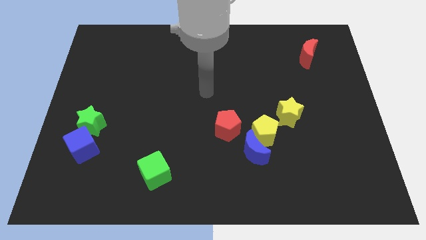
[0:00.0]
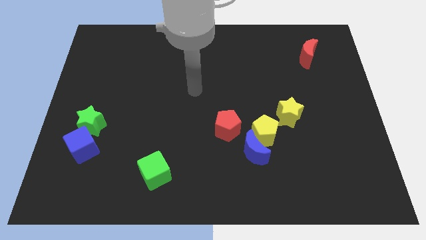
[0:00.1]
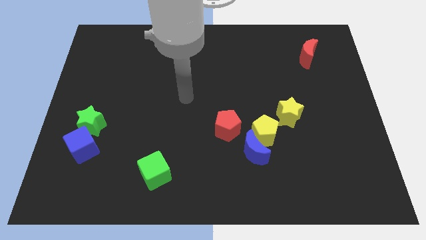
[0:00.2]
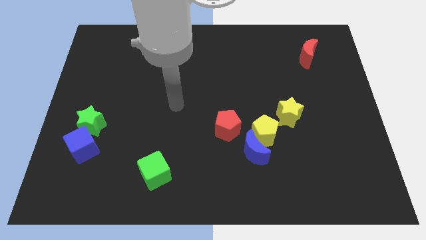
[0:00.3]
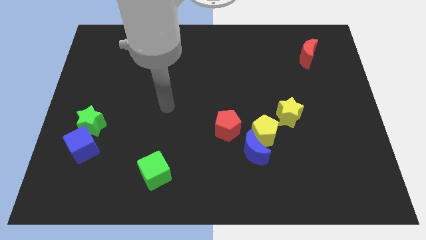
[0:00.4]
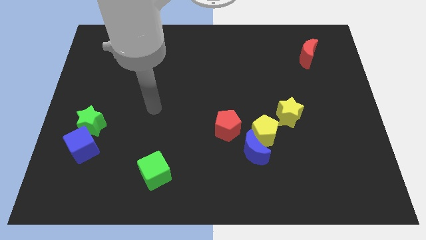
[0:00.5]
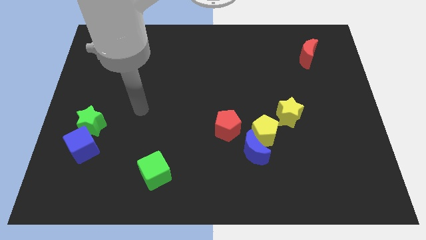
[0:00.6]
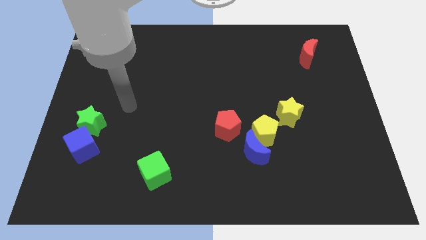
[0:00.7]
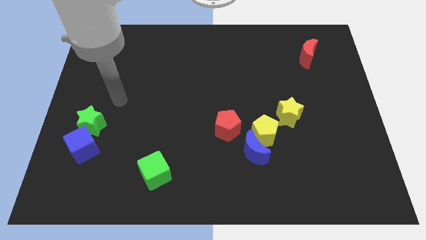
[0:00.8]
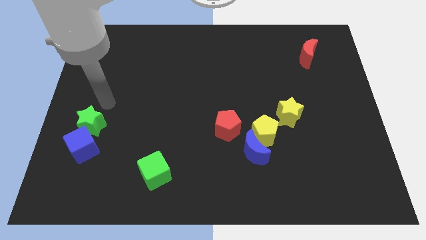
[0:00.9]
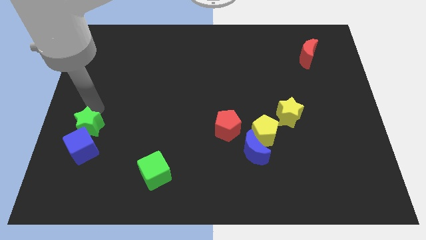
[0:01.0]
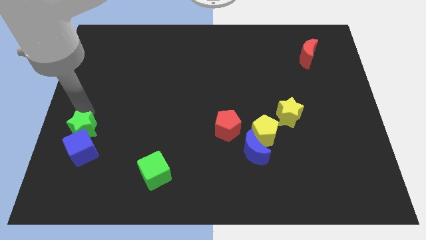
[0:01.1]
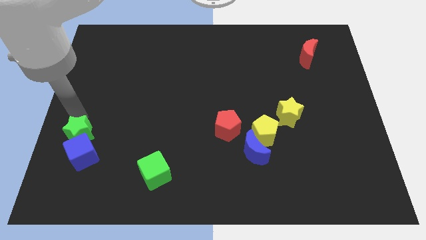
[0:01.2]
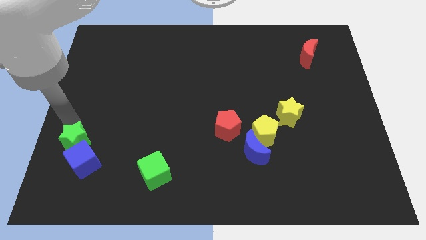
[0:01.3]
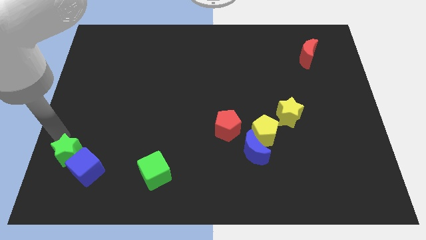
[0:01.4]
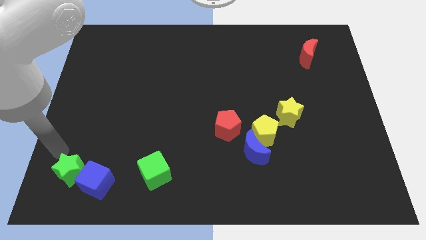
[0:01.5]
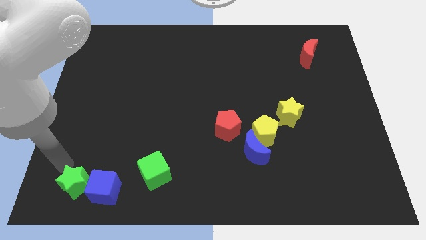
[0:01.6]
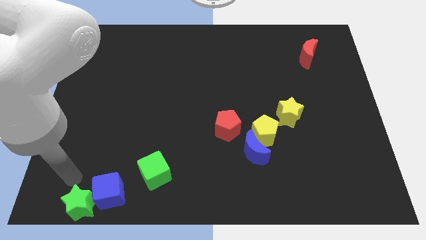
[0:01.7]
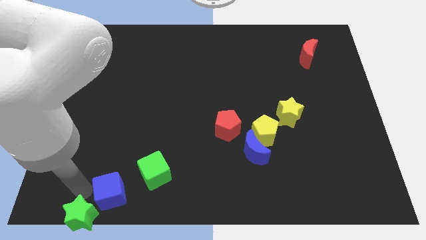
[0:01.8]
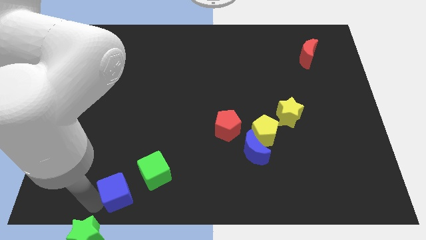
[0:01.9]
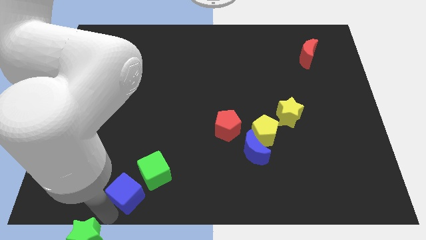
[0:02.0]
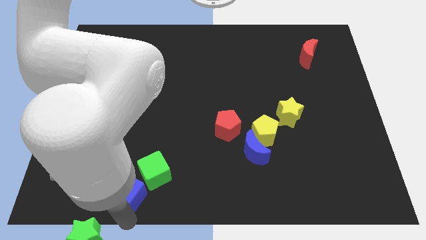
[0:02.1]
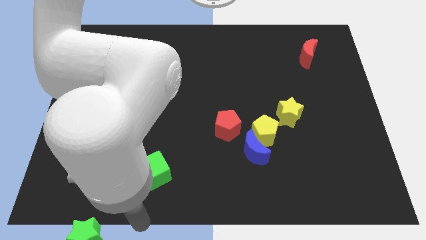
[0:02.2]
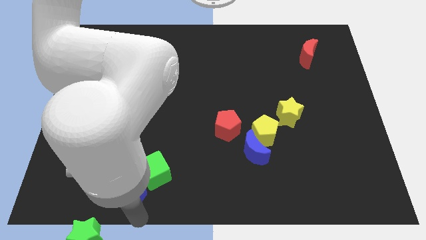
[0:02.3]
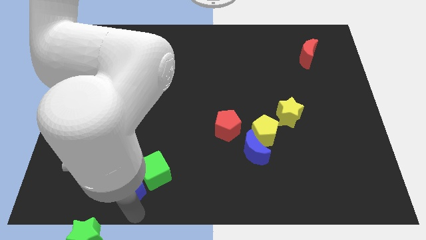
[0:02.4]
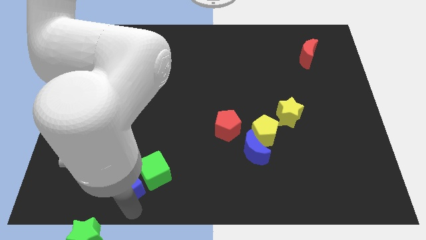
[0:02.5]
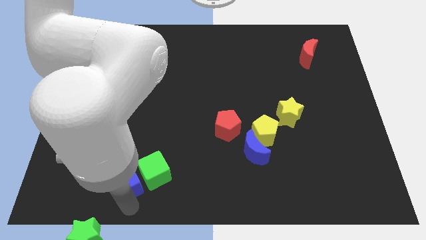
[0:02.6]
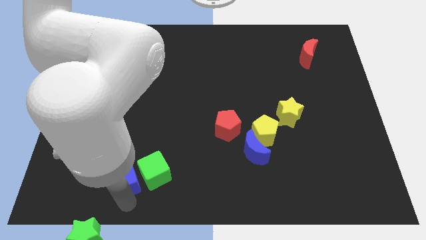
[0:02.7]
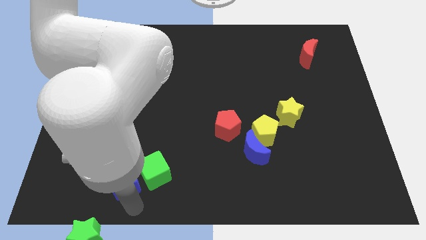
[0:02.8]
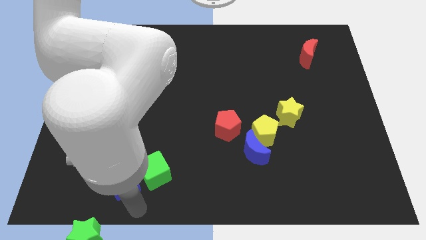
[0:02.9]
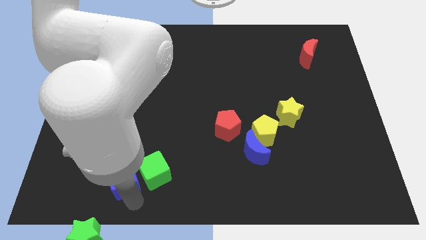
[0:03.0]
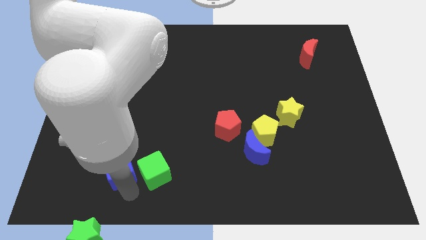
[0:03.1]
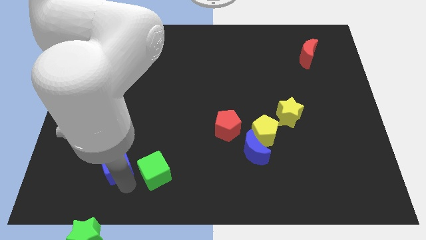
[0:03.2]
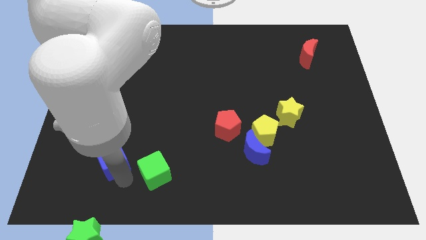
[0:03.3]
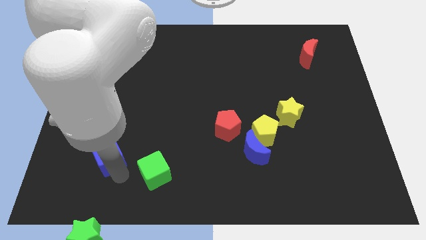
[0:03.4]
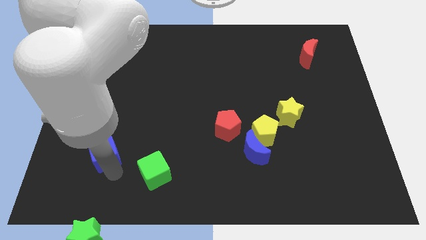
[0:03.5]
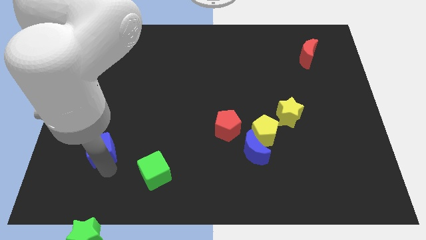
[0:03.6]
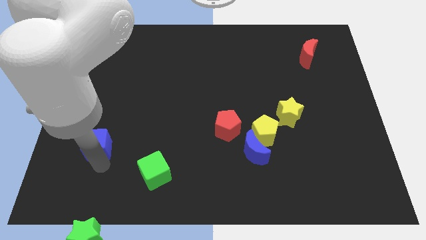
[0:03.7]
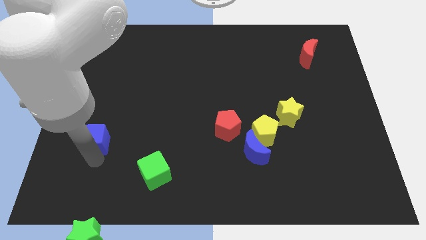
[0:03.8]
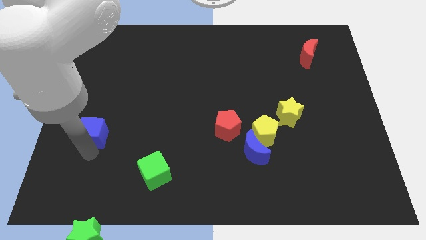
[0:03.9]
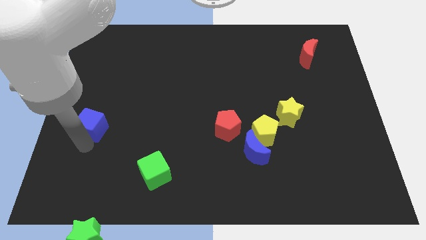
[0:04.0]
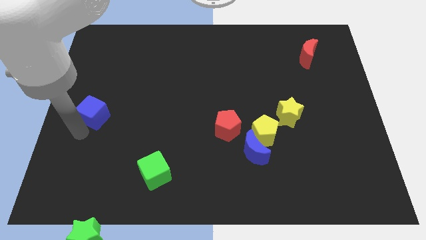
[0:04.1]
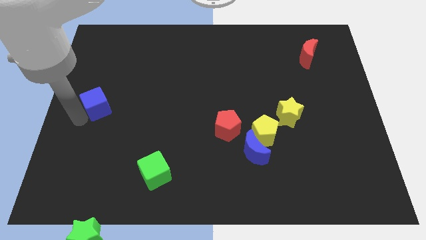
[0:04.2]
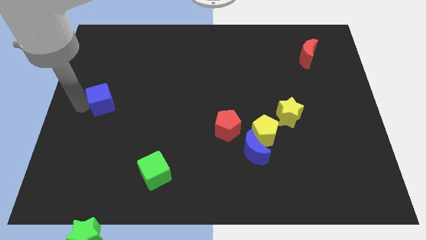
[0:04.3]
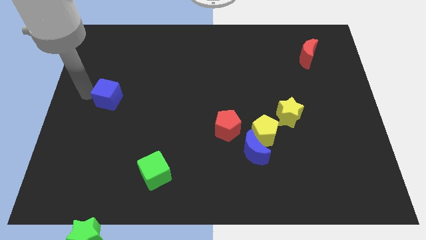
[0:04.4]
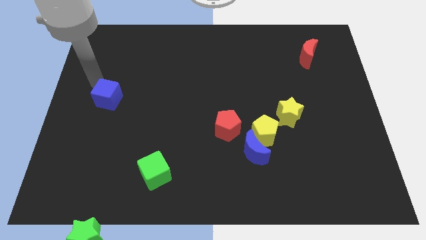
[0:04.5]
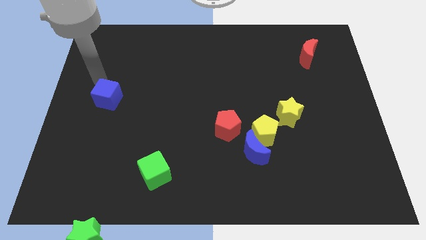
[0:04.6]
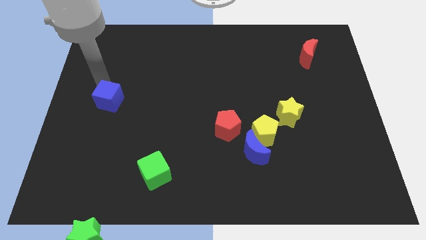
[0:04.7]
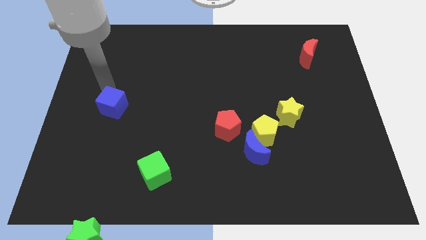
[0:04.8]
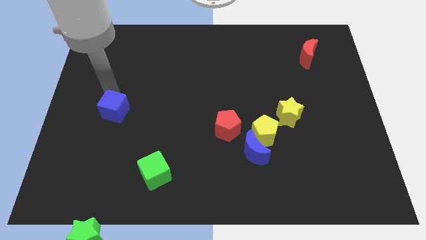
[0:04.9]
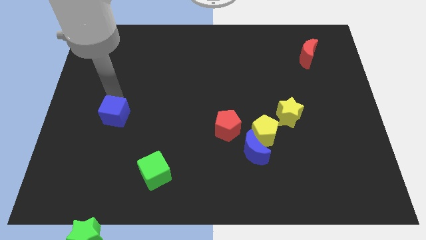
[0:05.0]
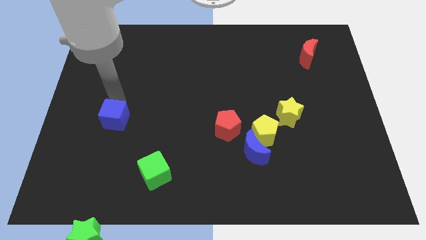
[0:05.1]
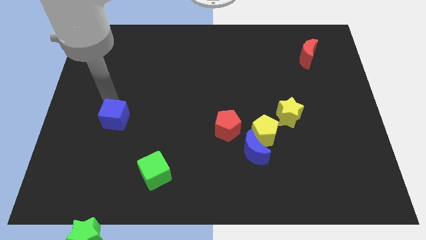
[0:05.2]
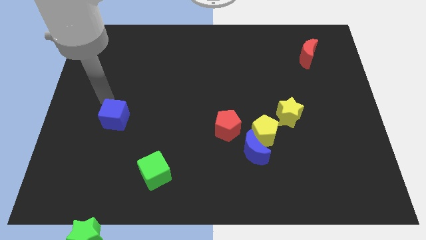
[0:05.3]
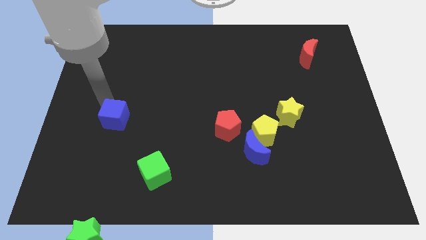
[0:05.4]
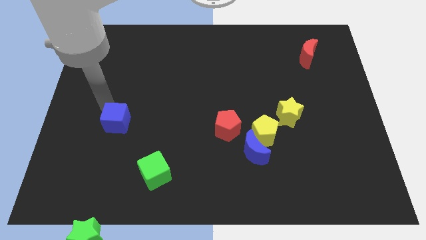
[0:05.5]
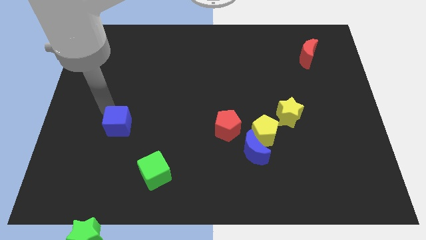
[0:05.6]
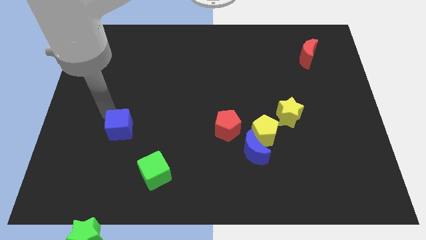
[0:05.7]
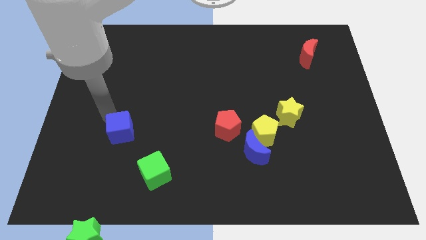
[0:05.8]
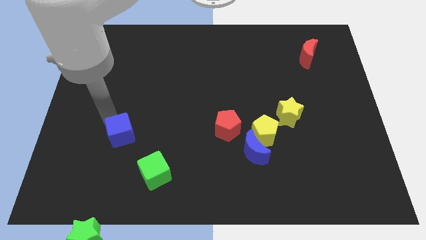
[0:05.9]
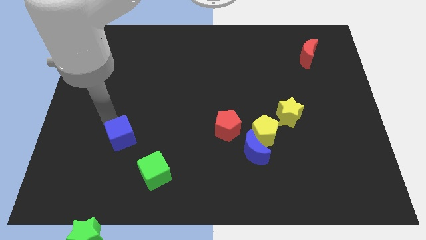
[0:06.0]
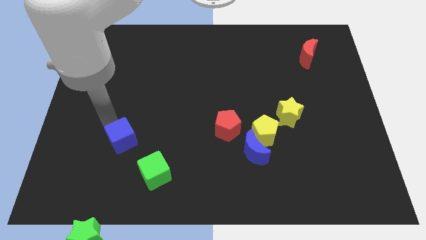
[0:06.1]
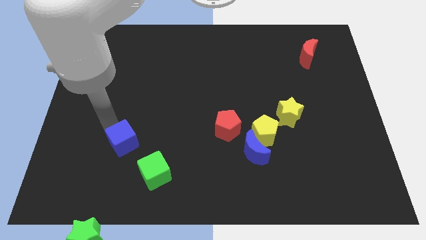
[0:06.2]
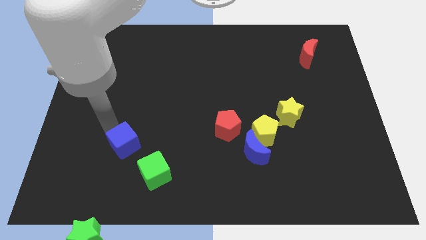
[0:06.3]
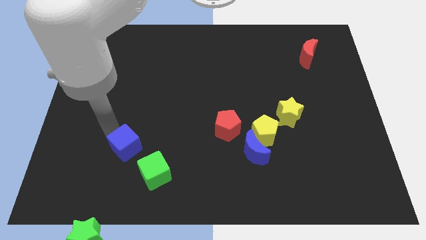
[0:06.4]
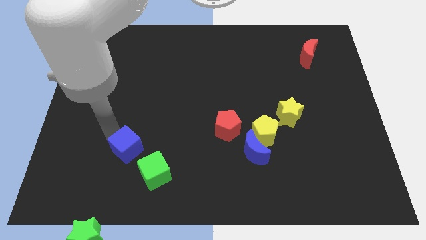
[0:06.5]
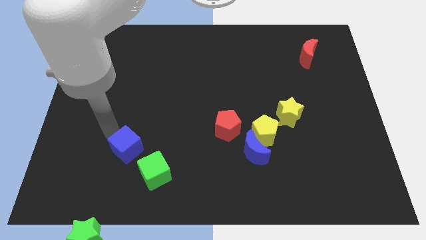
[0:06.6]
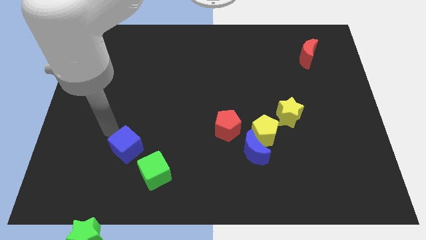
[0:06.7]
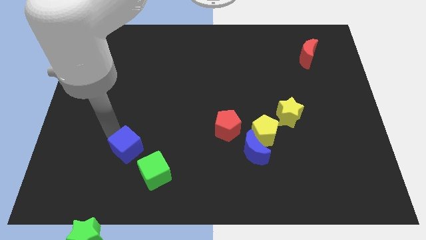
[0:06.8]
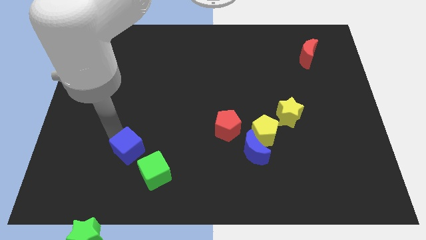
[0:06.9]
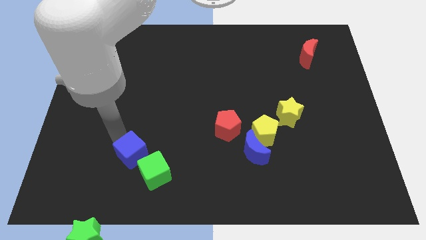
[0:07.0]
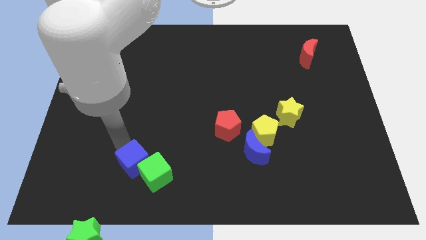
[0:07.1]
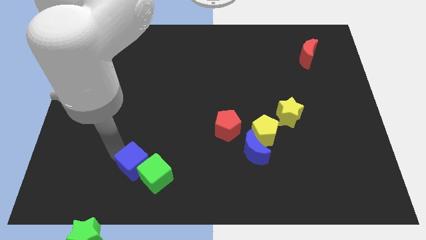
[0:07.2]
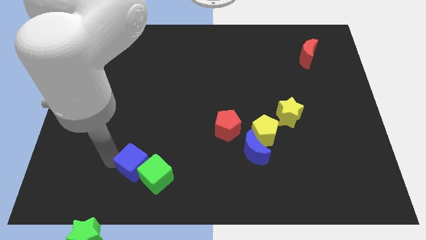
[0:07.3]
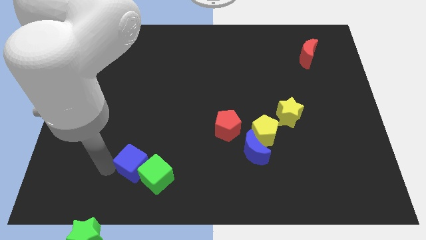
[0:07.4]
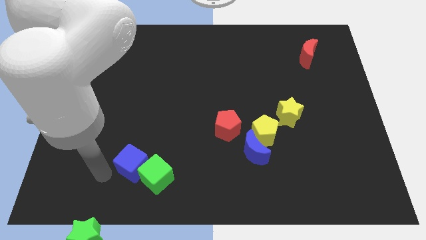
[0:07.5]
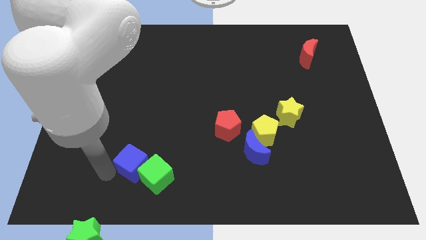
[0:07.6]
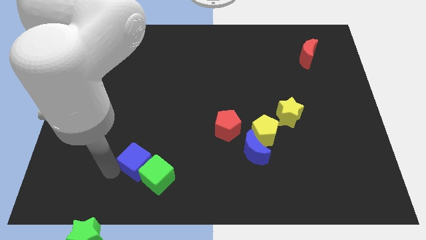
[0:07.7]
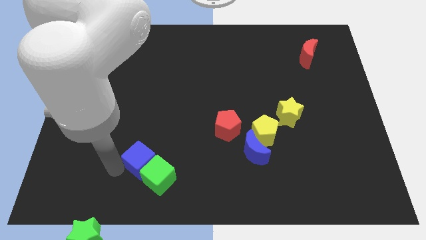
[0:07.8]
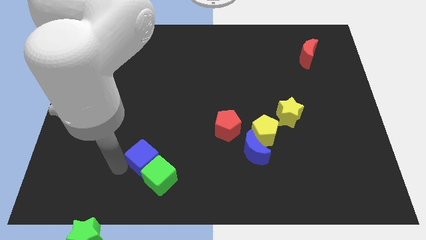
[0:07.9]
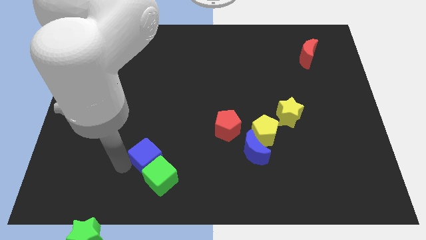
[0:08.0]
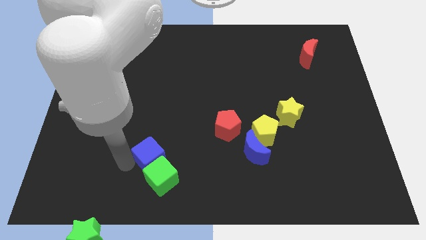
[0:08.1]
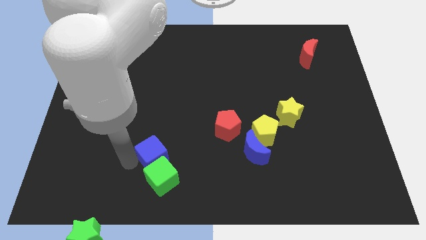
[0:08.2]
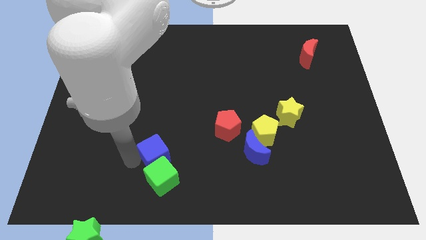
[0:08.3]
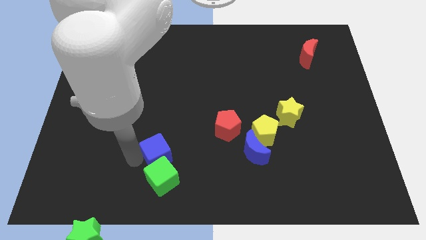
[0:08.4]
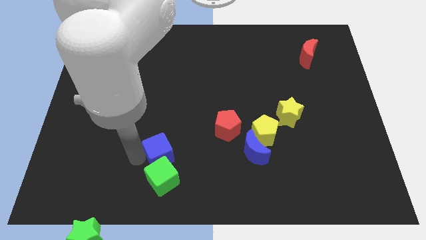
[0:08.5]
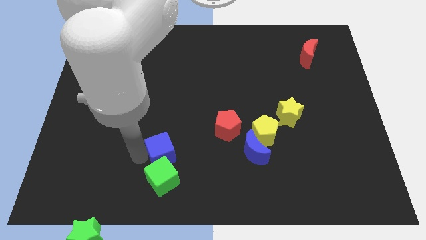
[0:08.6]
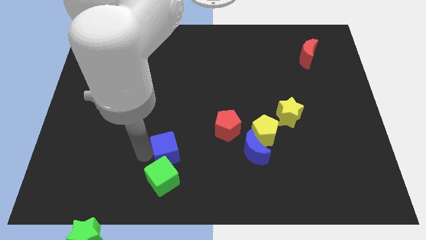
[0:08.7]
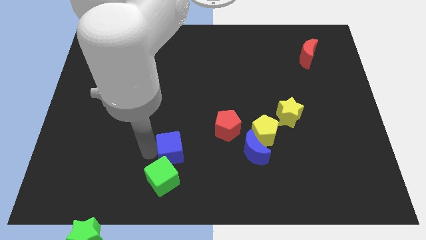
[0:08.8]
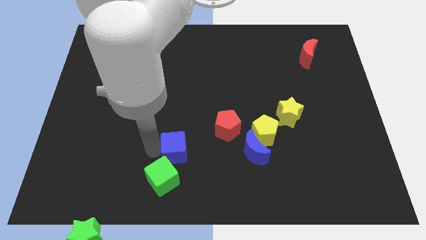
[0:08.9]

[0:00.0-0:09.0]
push the blue cube right
